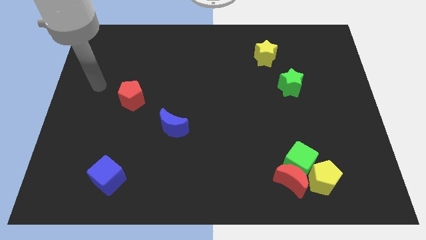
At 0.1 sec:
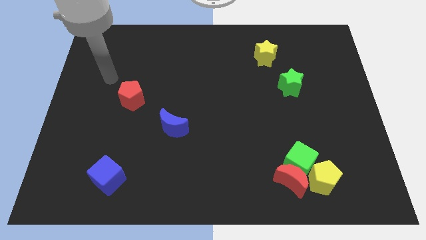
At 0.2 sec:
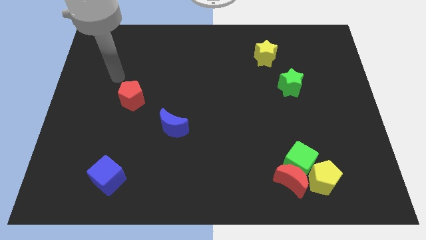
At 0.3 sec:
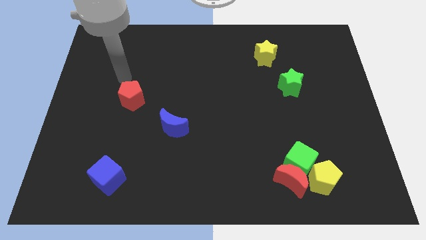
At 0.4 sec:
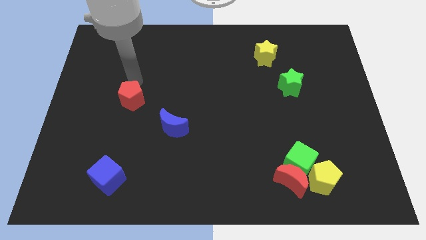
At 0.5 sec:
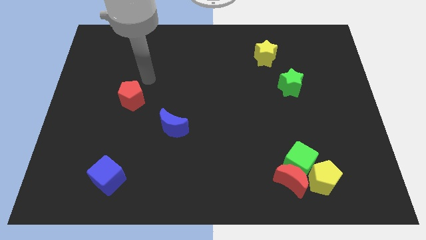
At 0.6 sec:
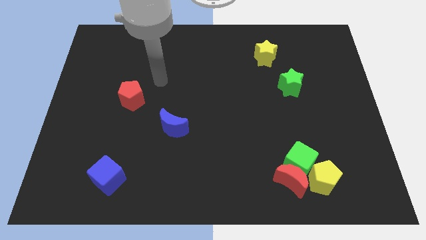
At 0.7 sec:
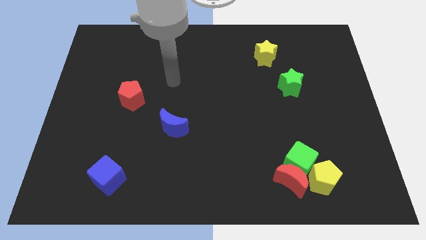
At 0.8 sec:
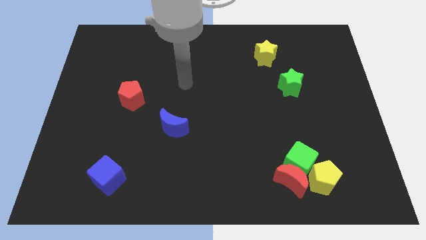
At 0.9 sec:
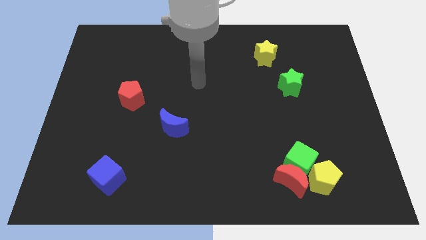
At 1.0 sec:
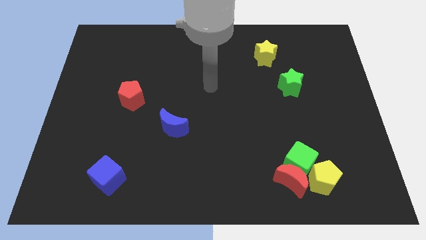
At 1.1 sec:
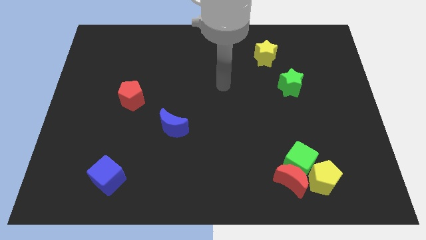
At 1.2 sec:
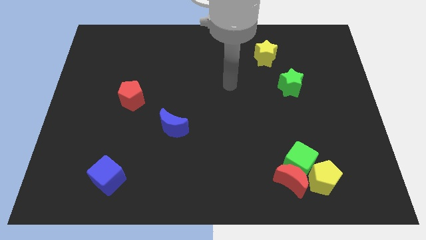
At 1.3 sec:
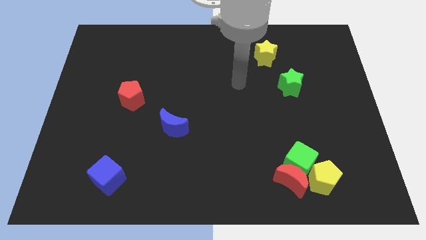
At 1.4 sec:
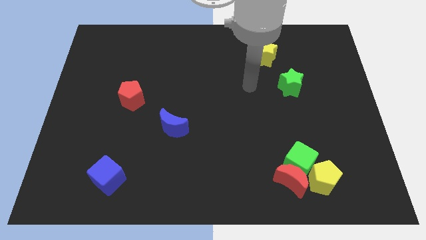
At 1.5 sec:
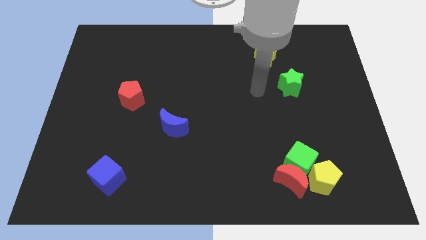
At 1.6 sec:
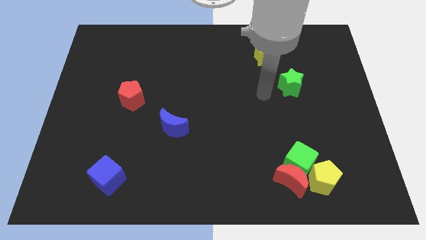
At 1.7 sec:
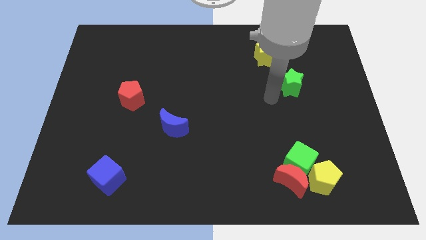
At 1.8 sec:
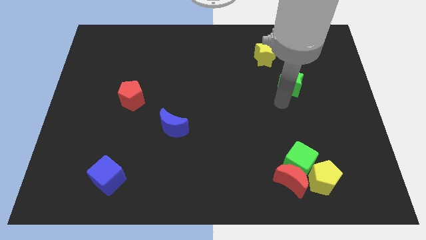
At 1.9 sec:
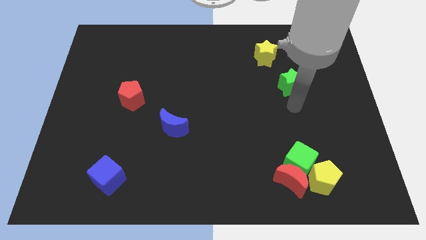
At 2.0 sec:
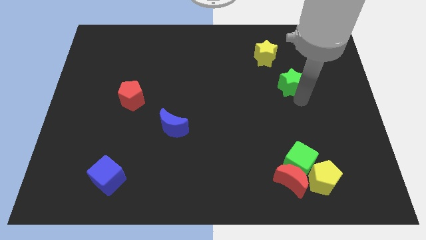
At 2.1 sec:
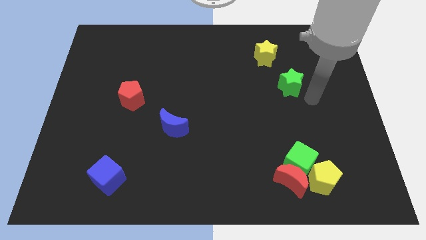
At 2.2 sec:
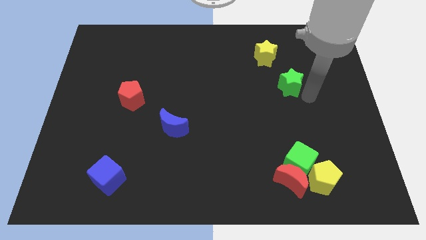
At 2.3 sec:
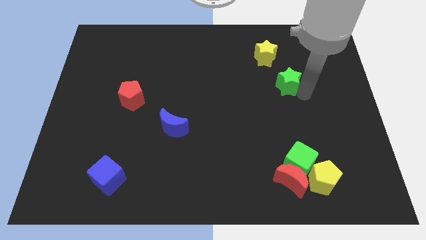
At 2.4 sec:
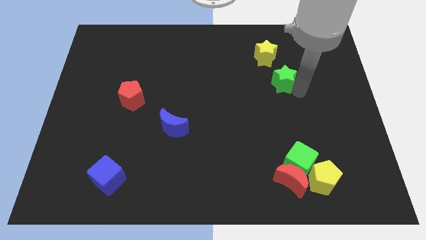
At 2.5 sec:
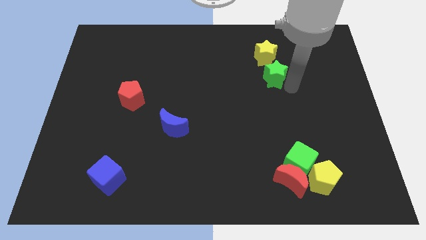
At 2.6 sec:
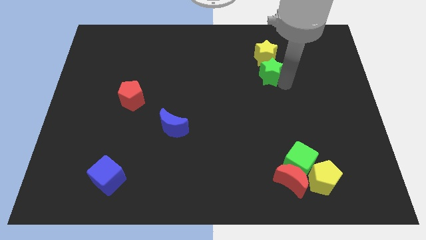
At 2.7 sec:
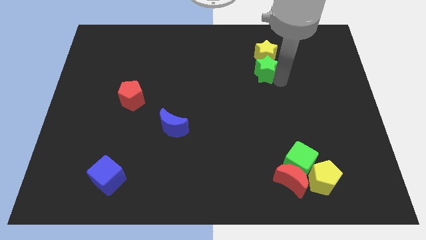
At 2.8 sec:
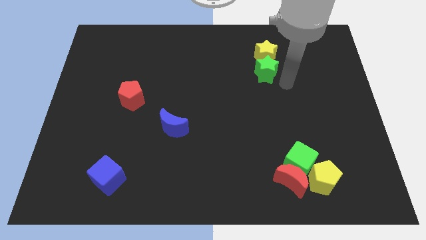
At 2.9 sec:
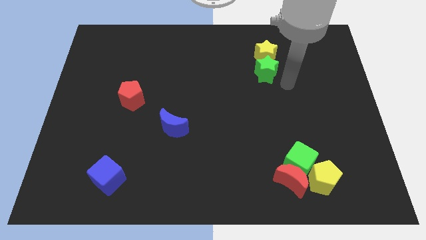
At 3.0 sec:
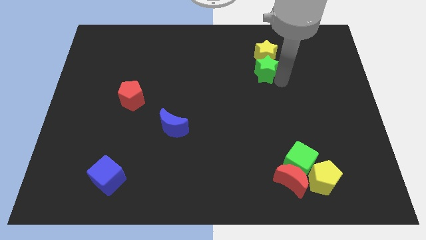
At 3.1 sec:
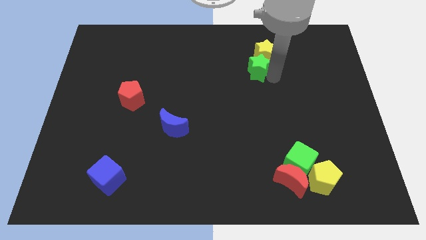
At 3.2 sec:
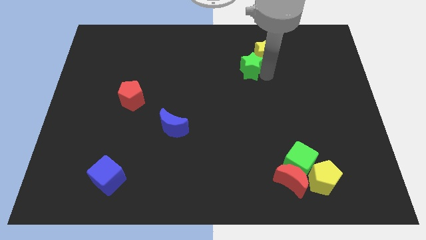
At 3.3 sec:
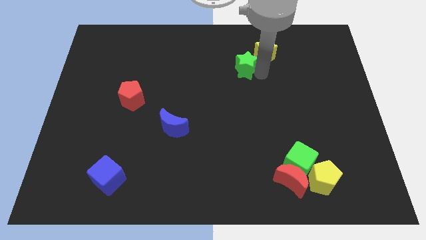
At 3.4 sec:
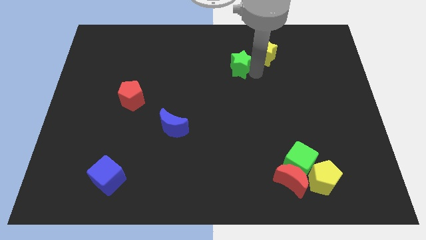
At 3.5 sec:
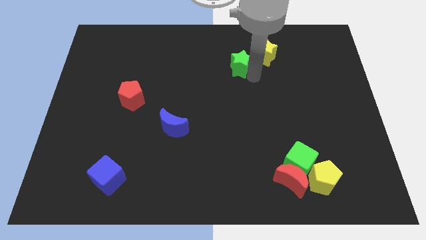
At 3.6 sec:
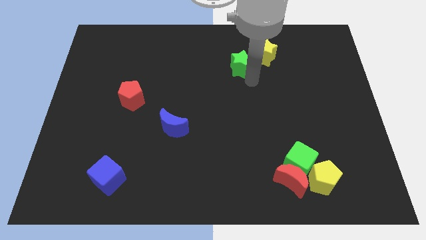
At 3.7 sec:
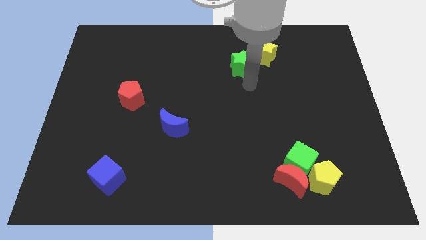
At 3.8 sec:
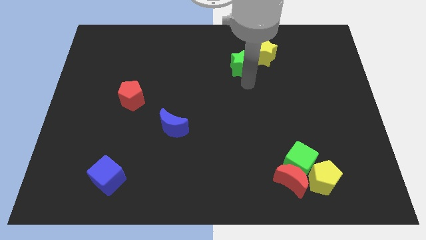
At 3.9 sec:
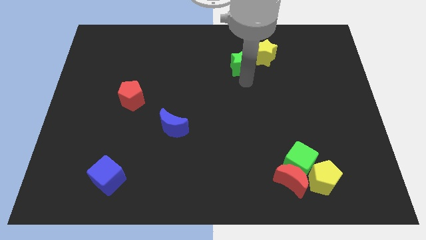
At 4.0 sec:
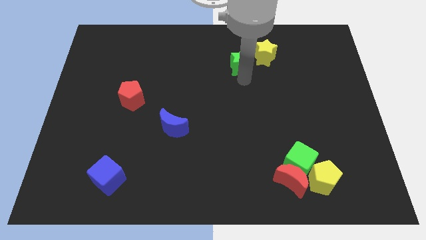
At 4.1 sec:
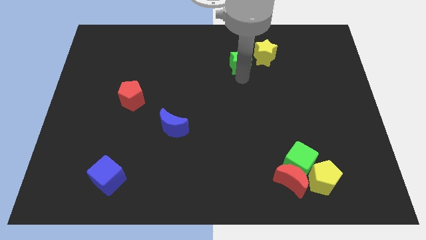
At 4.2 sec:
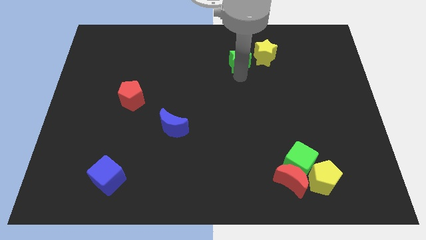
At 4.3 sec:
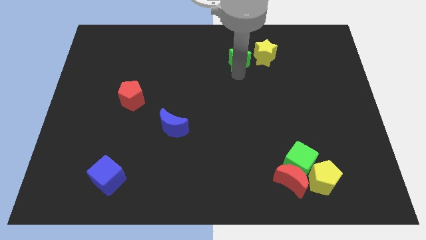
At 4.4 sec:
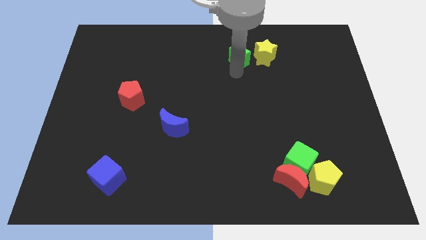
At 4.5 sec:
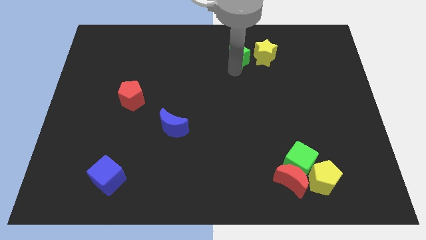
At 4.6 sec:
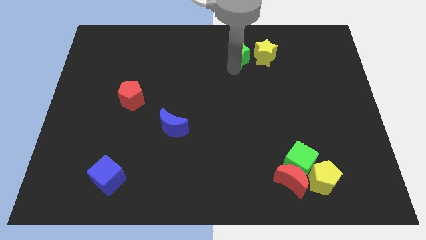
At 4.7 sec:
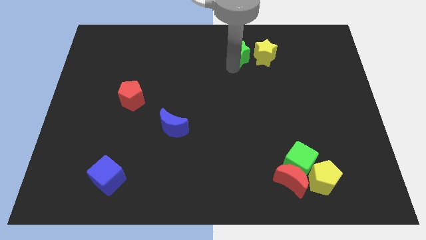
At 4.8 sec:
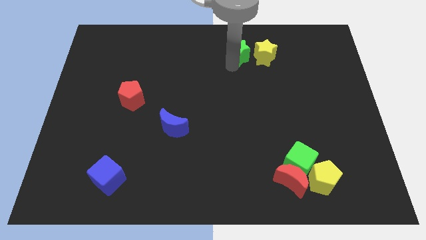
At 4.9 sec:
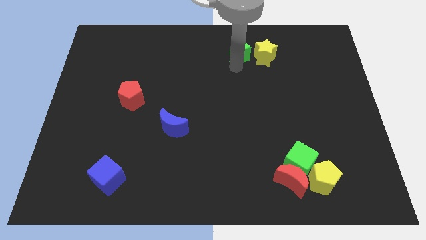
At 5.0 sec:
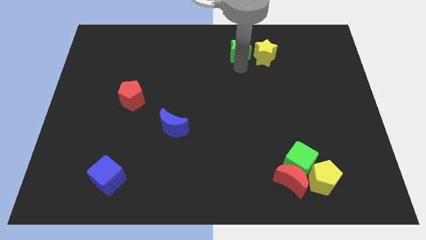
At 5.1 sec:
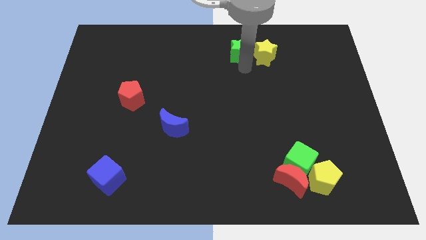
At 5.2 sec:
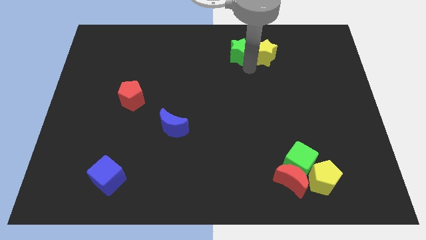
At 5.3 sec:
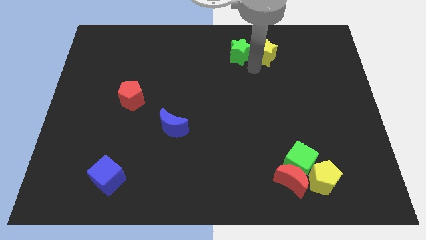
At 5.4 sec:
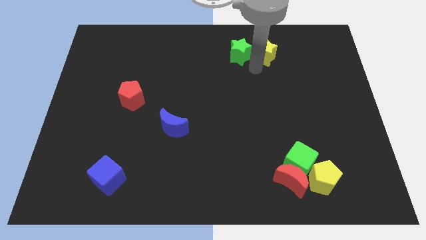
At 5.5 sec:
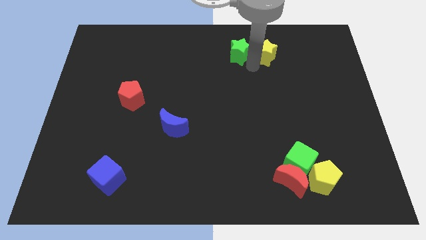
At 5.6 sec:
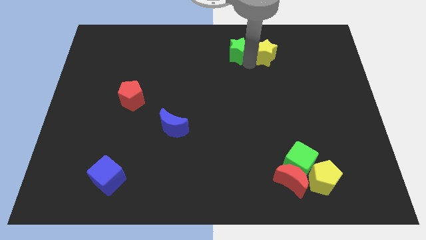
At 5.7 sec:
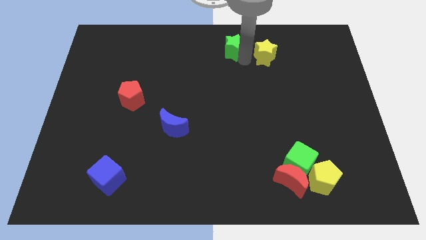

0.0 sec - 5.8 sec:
move the green star to the top side

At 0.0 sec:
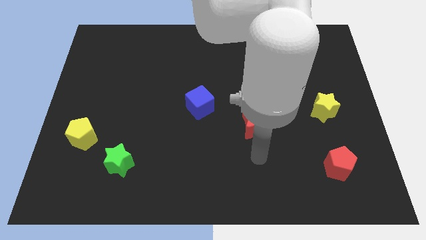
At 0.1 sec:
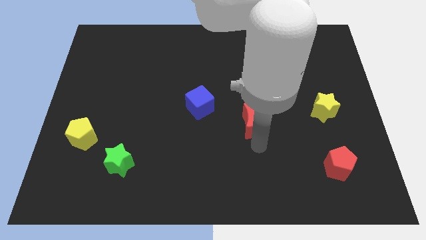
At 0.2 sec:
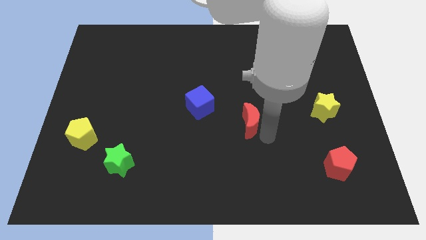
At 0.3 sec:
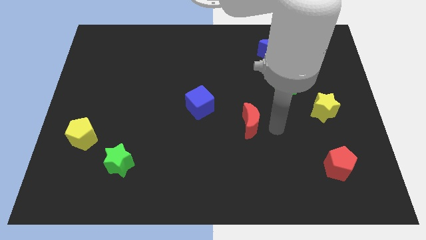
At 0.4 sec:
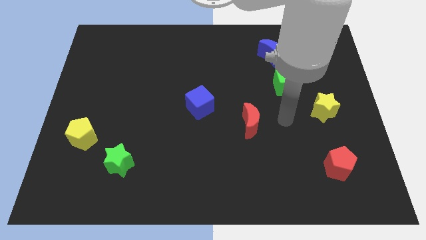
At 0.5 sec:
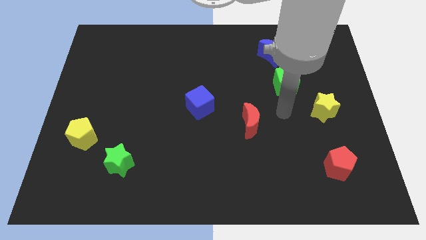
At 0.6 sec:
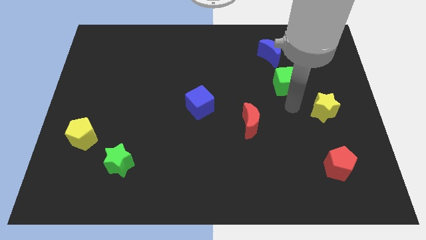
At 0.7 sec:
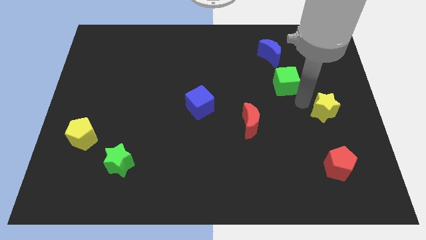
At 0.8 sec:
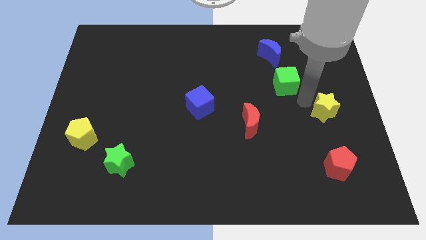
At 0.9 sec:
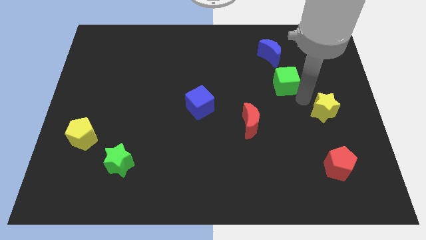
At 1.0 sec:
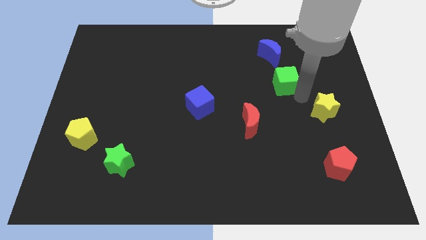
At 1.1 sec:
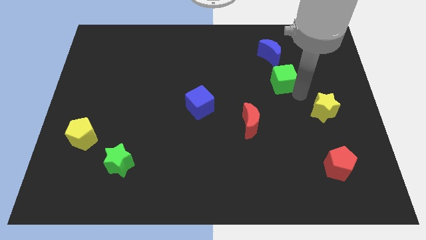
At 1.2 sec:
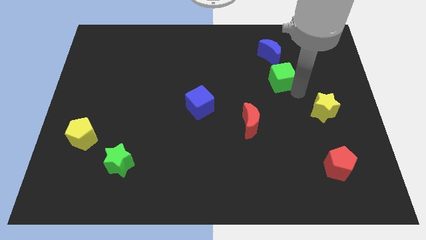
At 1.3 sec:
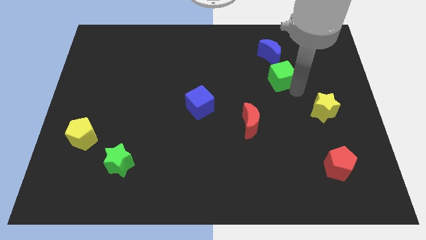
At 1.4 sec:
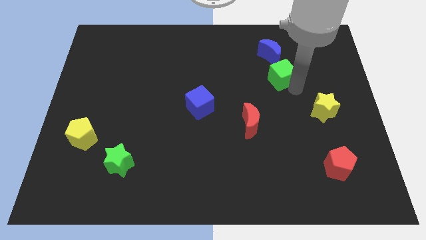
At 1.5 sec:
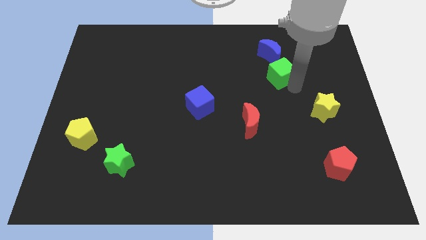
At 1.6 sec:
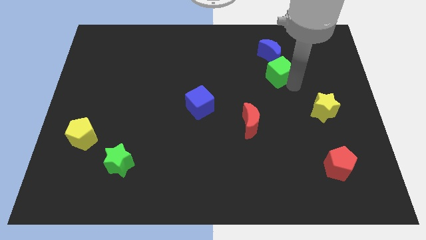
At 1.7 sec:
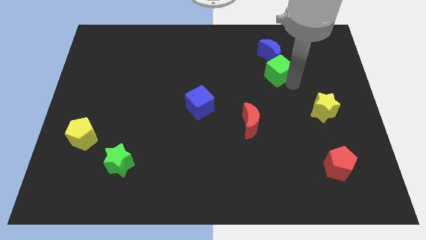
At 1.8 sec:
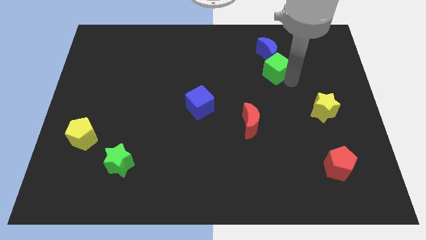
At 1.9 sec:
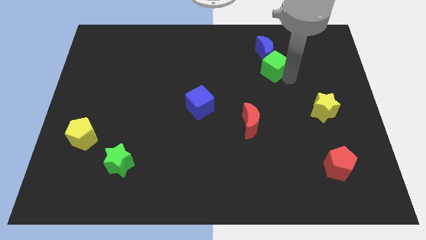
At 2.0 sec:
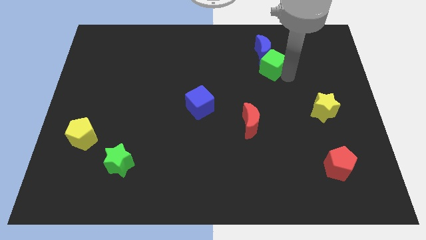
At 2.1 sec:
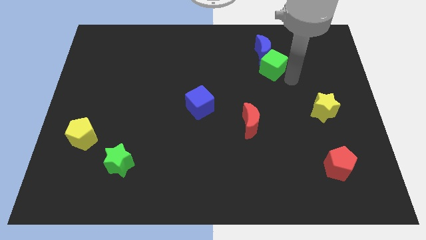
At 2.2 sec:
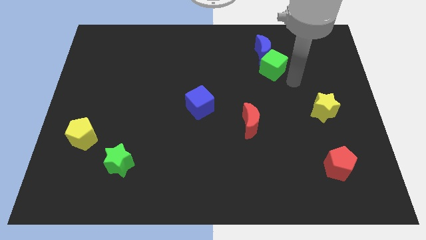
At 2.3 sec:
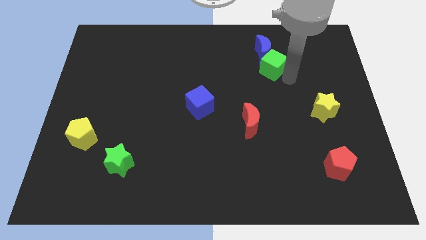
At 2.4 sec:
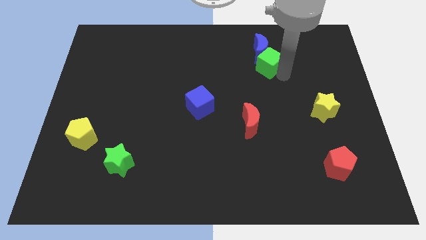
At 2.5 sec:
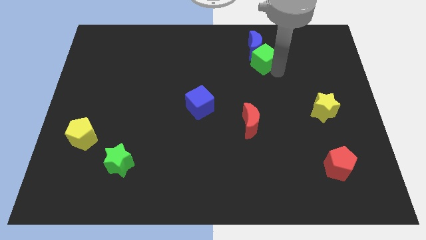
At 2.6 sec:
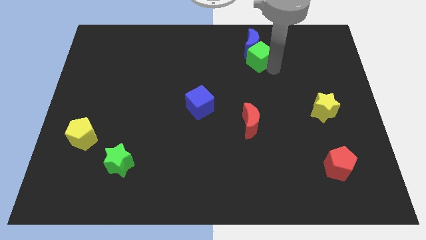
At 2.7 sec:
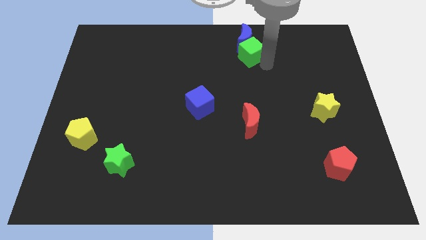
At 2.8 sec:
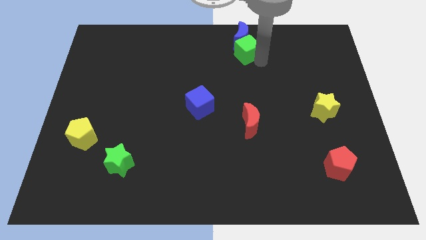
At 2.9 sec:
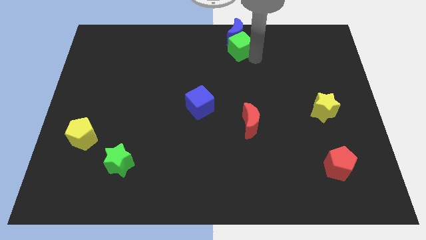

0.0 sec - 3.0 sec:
put the green cube to the top side
